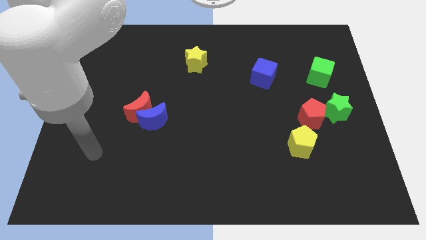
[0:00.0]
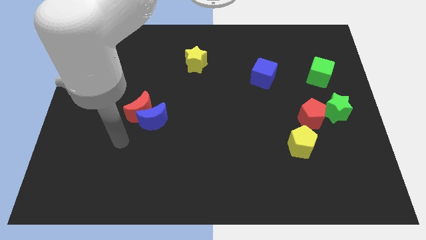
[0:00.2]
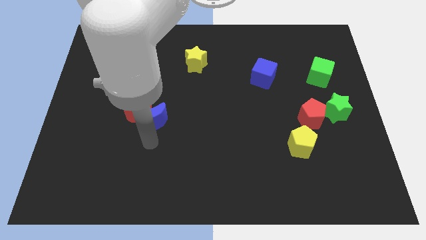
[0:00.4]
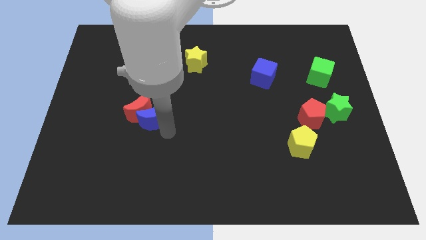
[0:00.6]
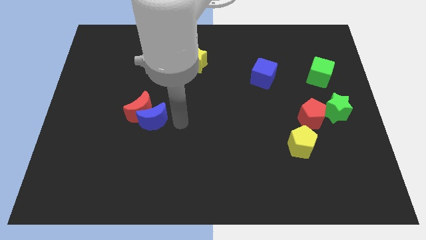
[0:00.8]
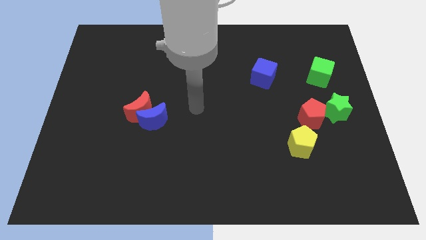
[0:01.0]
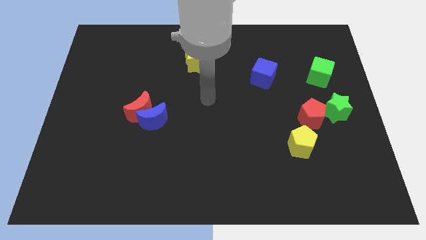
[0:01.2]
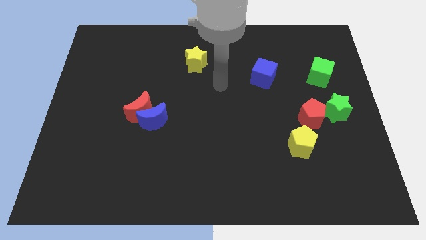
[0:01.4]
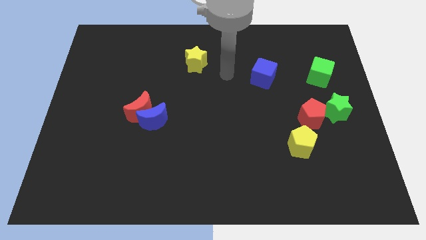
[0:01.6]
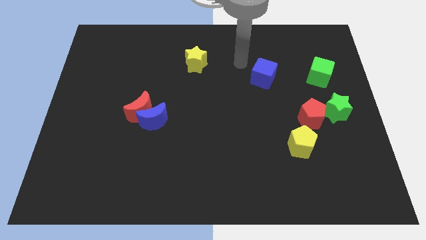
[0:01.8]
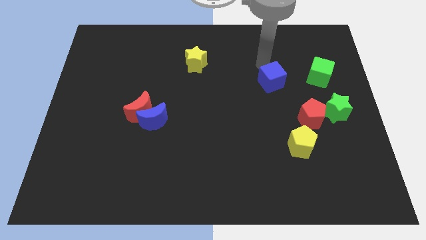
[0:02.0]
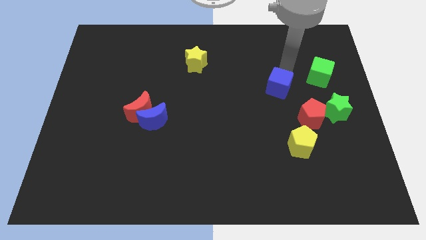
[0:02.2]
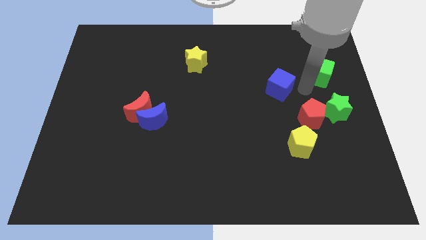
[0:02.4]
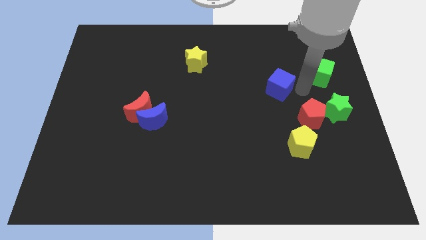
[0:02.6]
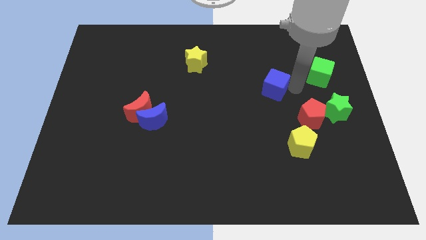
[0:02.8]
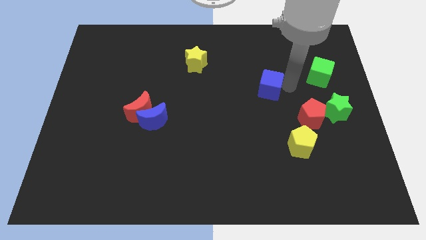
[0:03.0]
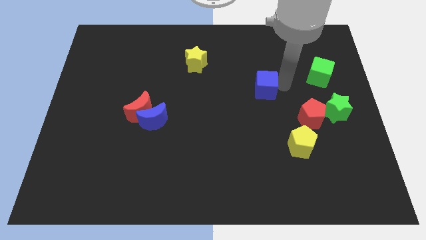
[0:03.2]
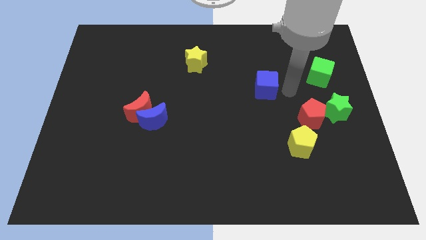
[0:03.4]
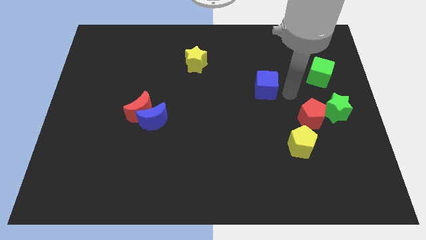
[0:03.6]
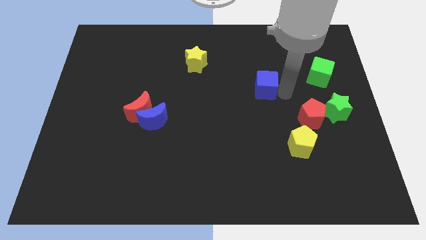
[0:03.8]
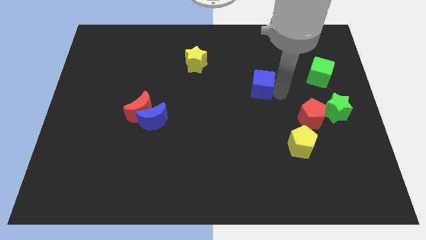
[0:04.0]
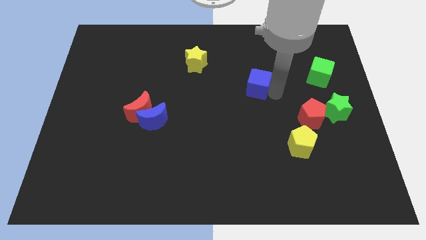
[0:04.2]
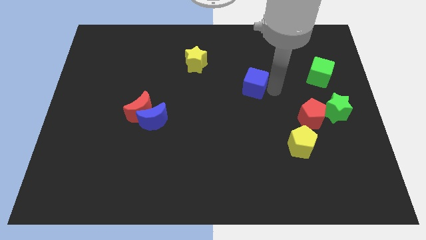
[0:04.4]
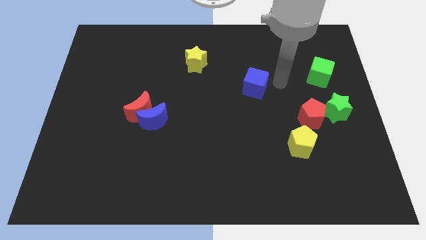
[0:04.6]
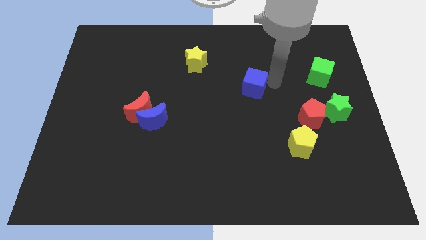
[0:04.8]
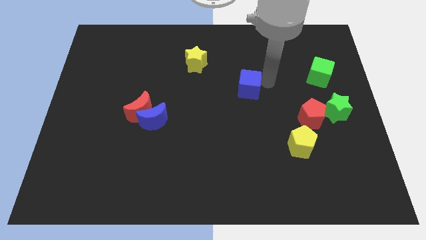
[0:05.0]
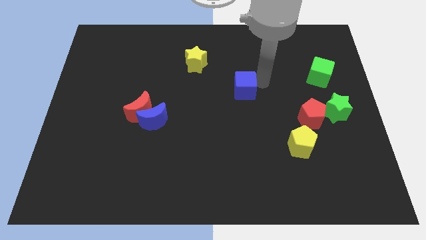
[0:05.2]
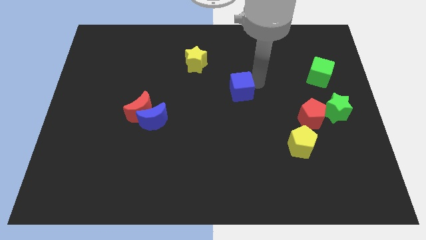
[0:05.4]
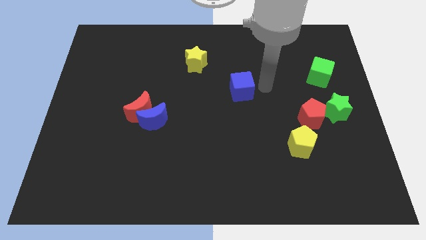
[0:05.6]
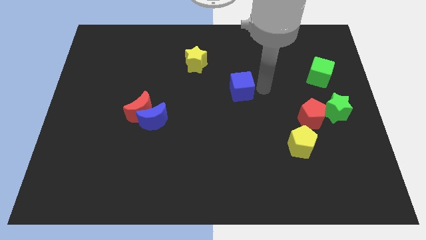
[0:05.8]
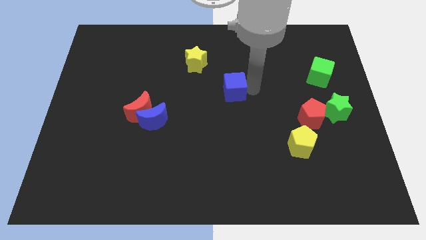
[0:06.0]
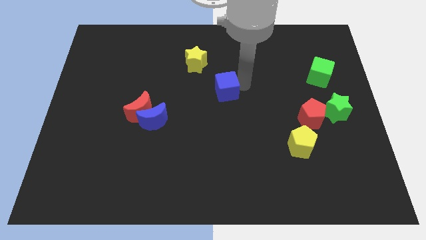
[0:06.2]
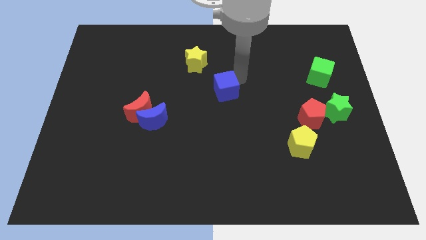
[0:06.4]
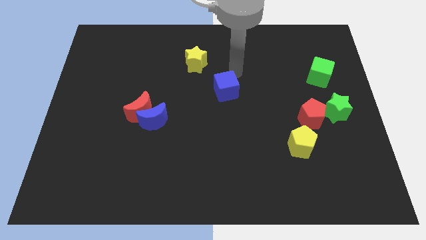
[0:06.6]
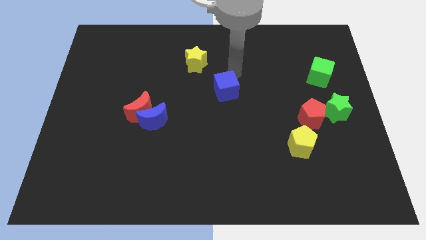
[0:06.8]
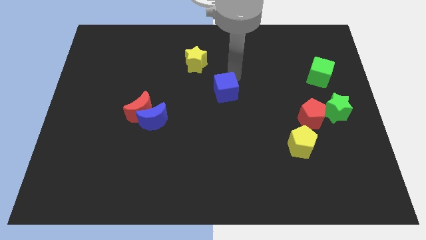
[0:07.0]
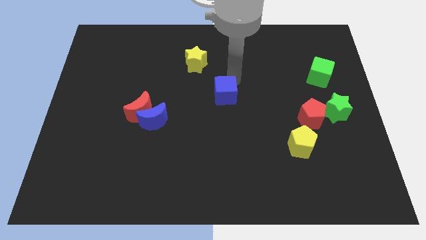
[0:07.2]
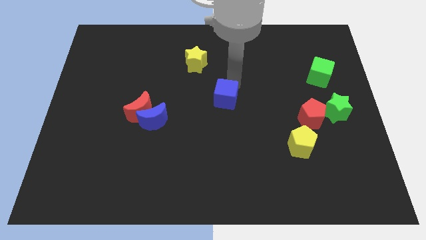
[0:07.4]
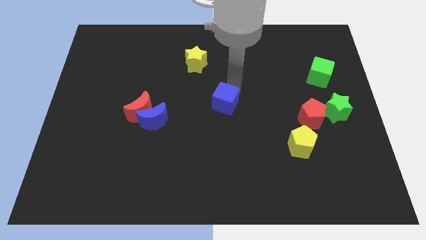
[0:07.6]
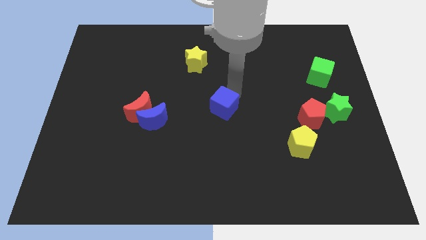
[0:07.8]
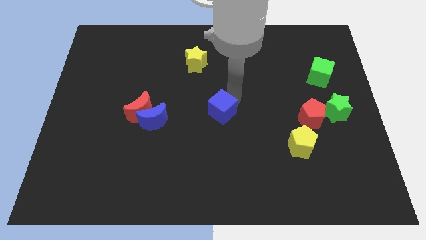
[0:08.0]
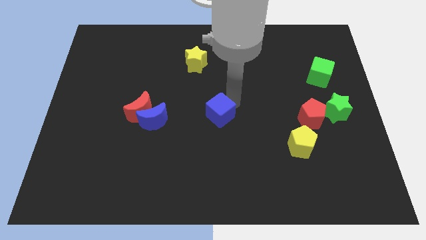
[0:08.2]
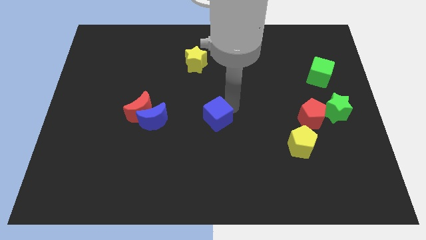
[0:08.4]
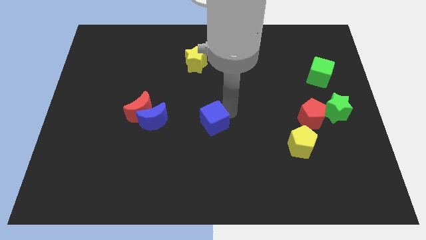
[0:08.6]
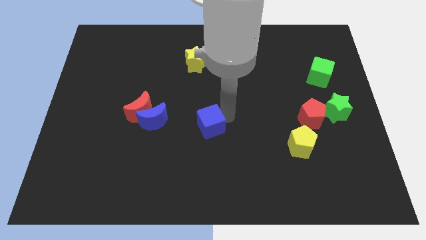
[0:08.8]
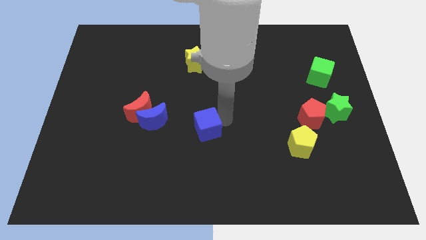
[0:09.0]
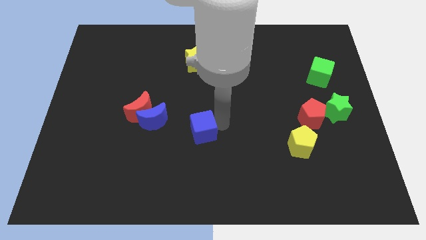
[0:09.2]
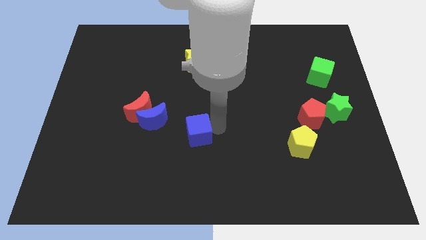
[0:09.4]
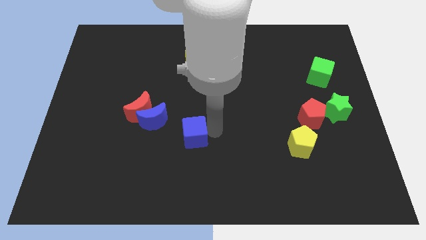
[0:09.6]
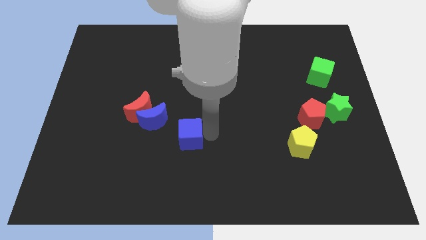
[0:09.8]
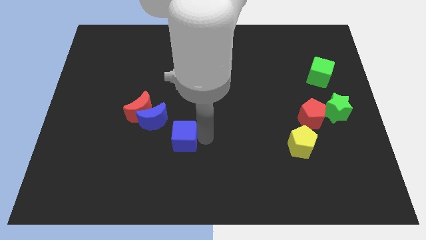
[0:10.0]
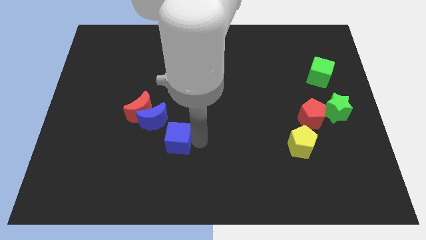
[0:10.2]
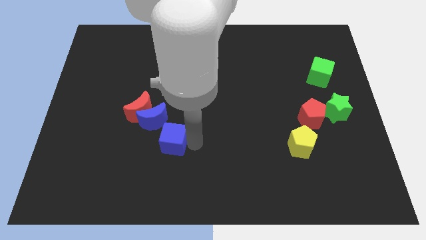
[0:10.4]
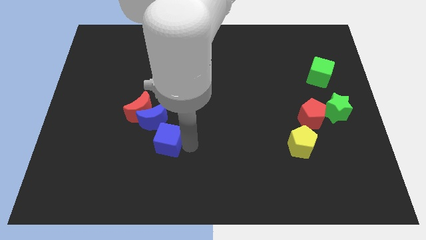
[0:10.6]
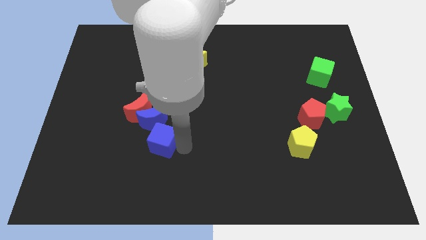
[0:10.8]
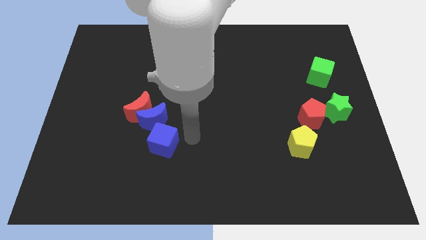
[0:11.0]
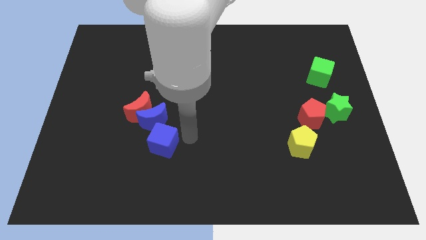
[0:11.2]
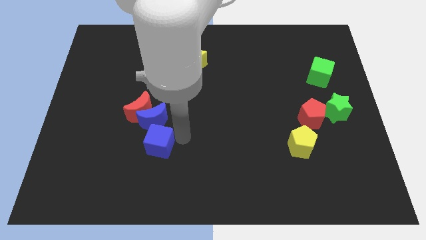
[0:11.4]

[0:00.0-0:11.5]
push the blue cube to the bottom side of the red moon

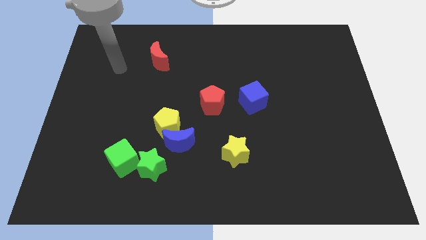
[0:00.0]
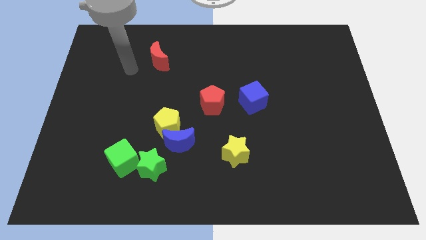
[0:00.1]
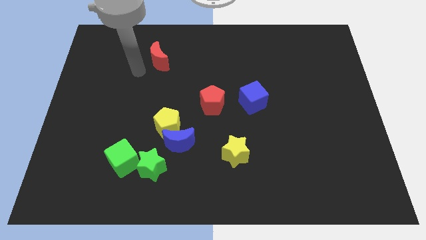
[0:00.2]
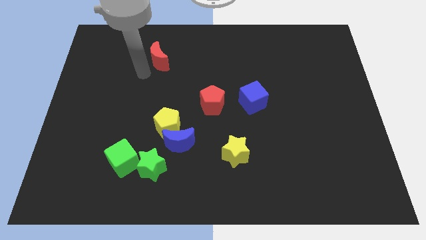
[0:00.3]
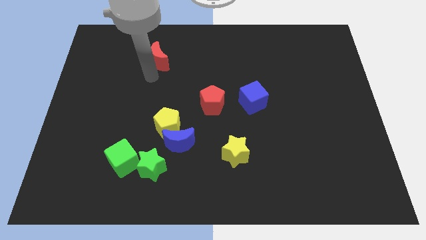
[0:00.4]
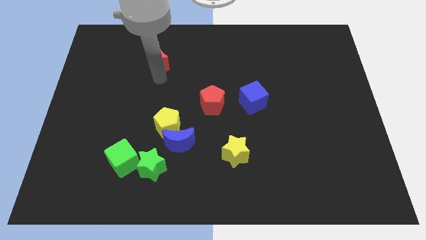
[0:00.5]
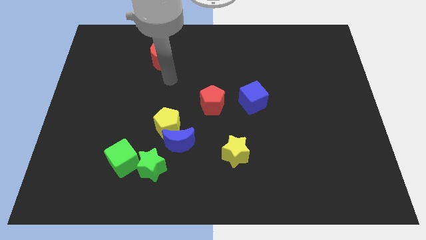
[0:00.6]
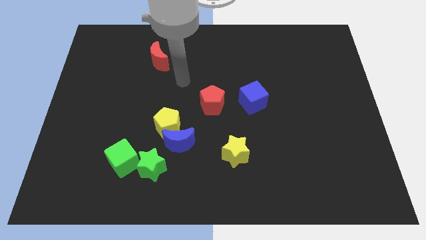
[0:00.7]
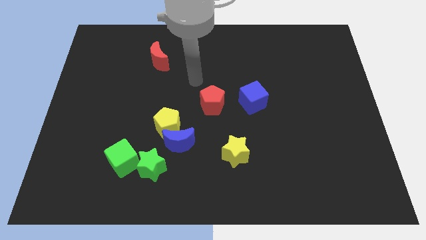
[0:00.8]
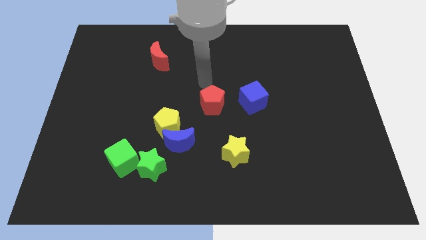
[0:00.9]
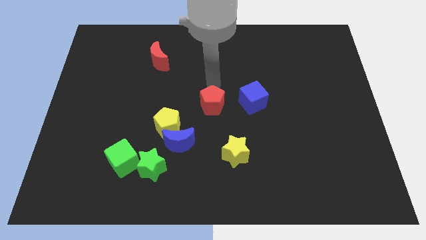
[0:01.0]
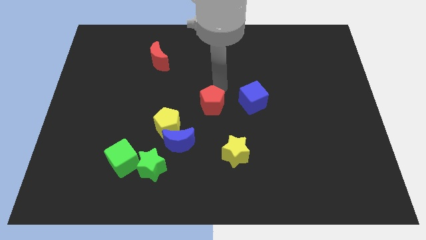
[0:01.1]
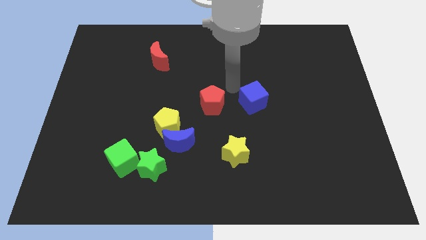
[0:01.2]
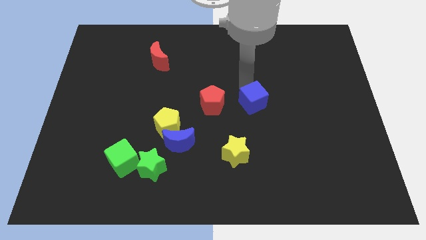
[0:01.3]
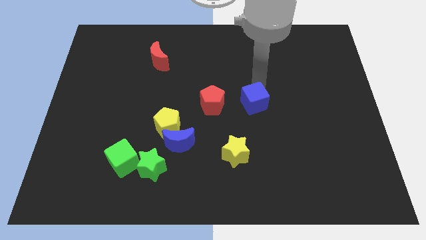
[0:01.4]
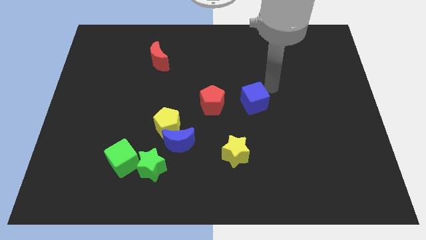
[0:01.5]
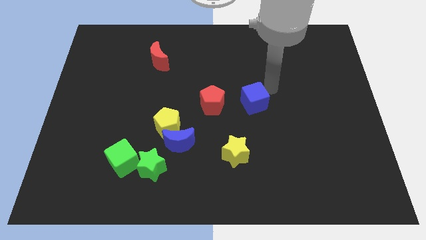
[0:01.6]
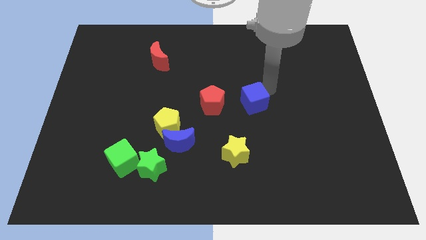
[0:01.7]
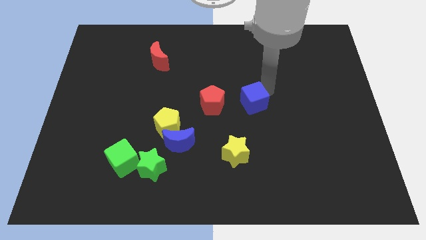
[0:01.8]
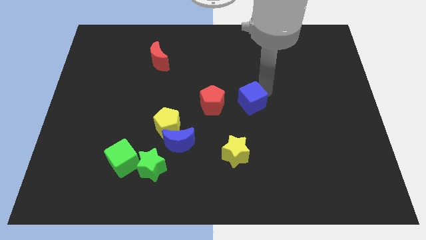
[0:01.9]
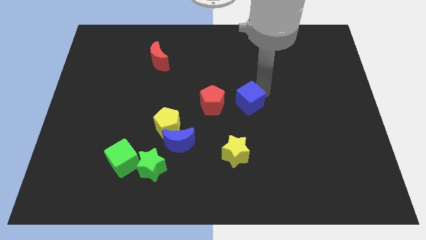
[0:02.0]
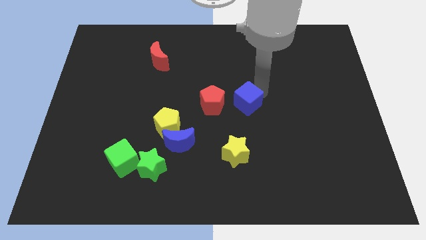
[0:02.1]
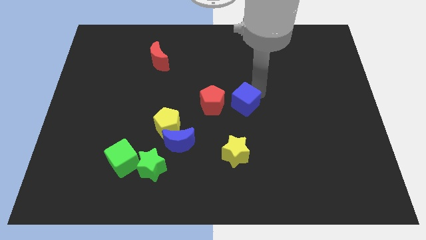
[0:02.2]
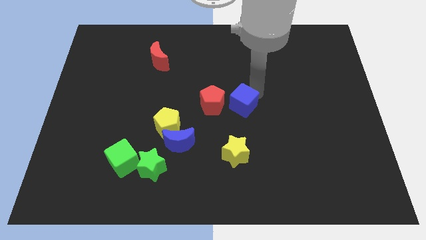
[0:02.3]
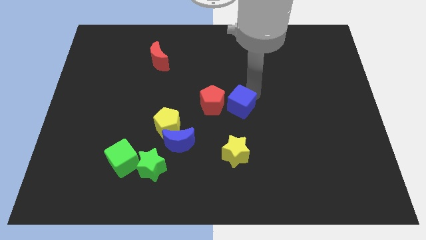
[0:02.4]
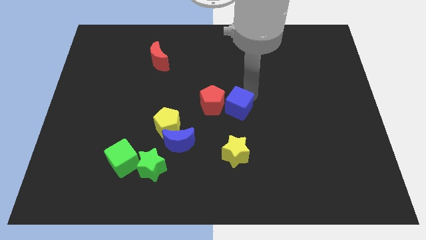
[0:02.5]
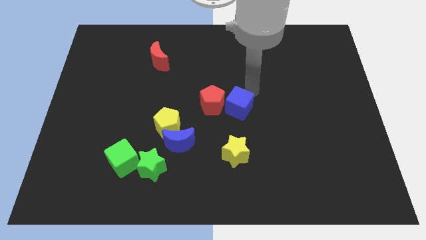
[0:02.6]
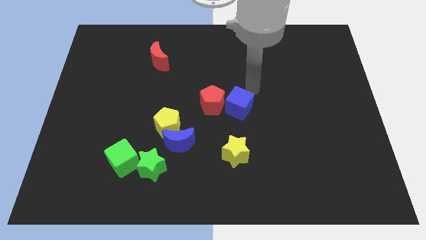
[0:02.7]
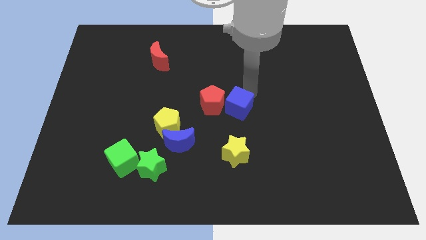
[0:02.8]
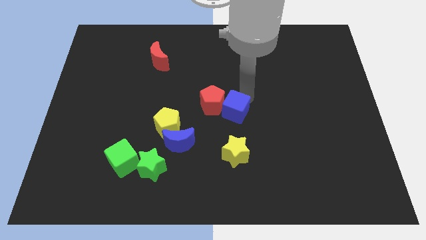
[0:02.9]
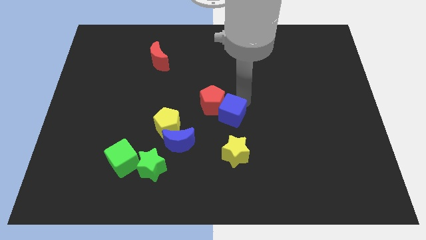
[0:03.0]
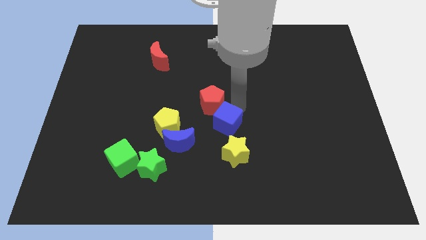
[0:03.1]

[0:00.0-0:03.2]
slide the blue cube to the bottom side of the red pentagon
